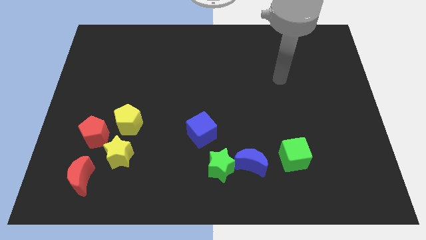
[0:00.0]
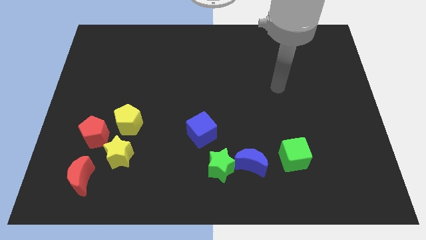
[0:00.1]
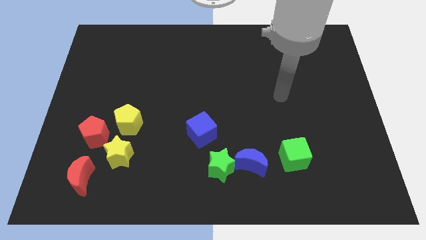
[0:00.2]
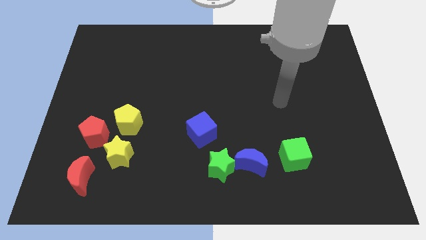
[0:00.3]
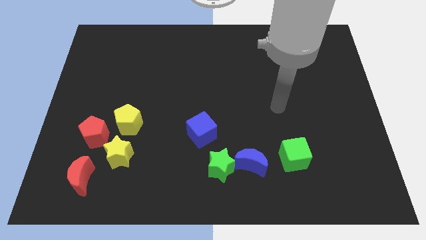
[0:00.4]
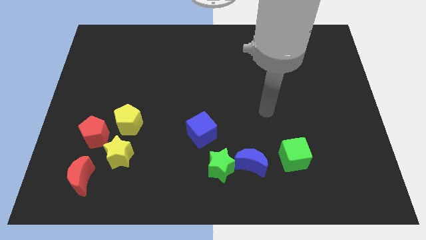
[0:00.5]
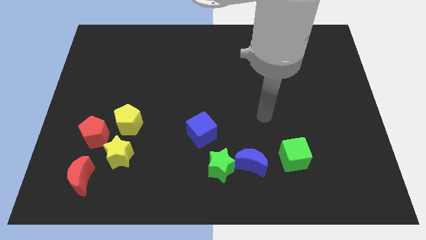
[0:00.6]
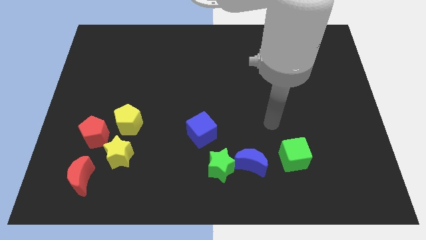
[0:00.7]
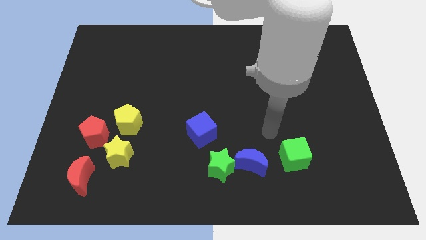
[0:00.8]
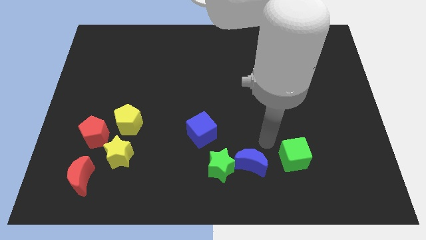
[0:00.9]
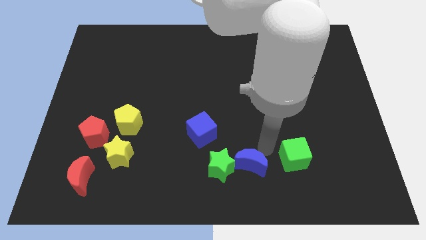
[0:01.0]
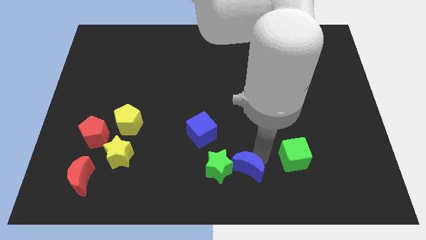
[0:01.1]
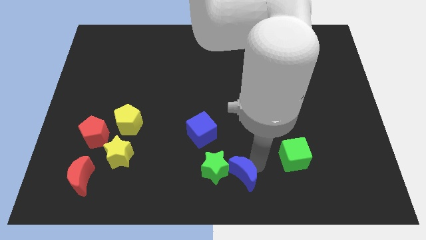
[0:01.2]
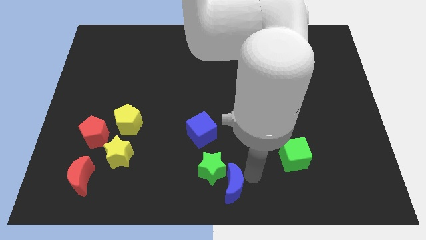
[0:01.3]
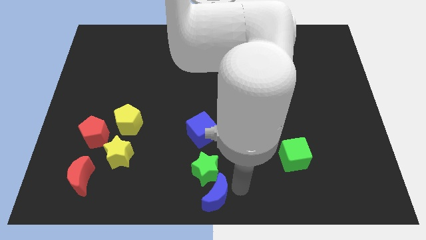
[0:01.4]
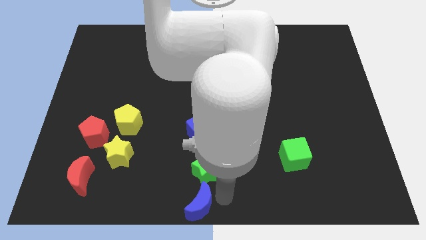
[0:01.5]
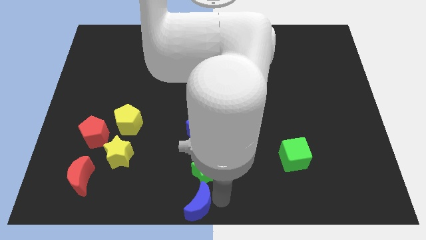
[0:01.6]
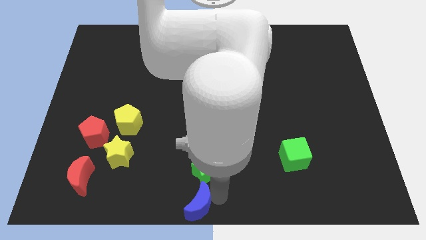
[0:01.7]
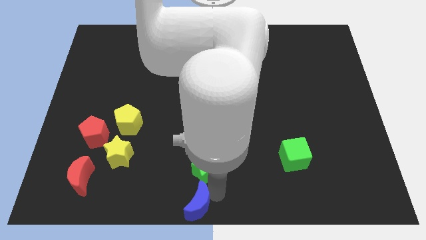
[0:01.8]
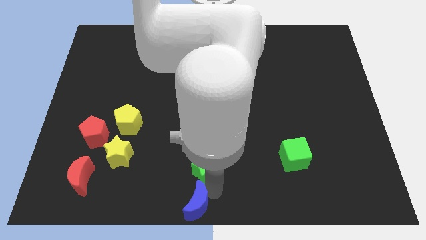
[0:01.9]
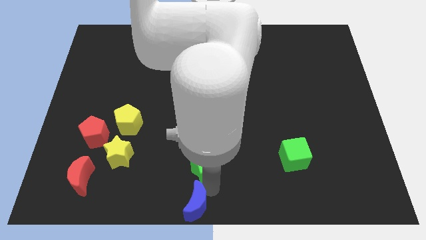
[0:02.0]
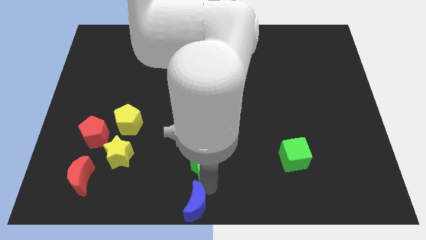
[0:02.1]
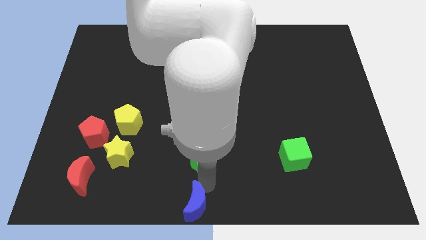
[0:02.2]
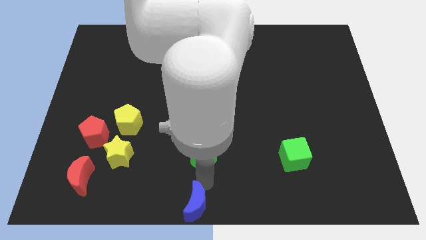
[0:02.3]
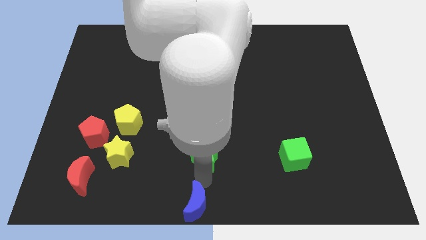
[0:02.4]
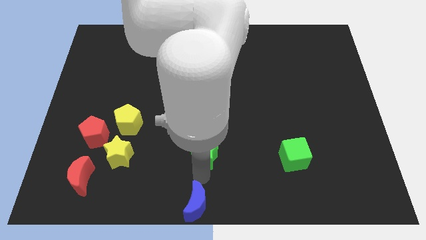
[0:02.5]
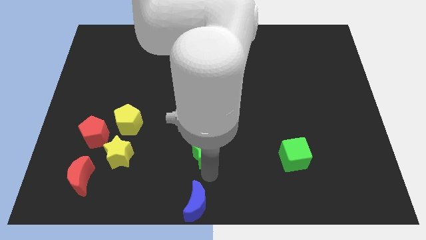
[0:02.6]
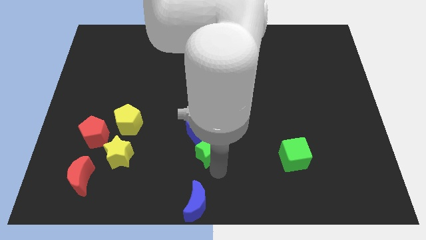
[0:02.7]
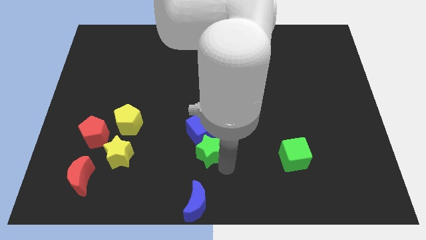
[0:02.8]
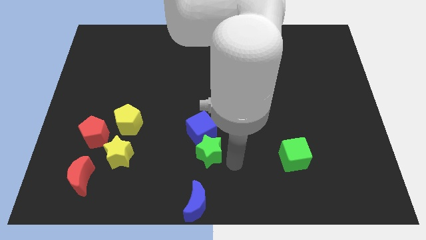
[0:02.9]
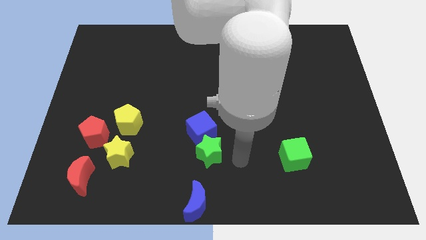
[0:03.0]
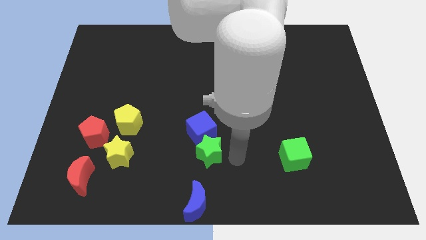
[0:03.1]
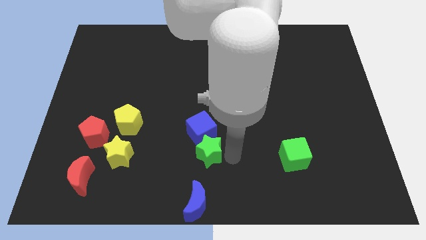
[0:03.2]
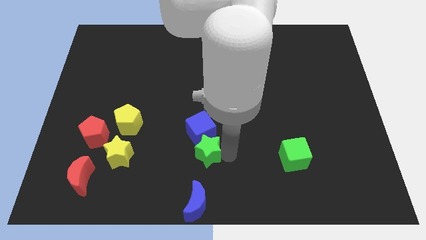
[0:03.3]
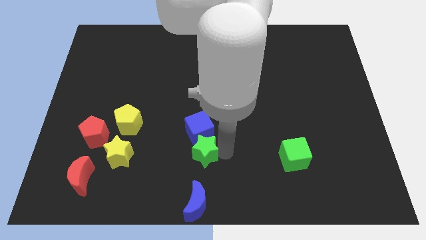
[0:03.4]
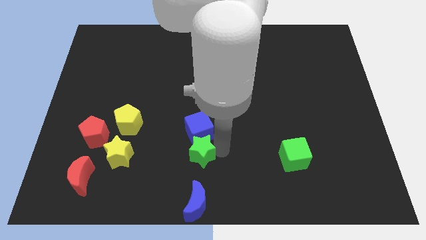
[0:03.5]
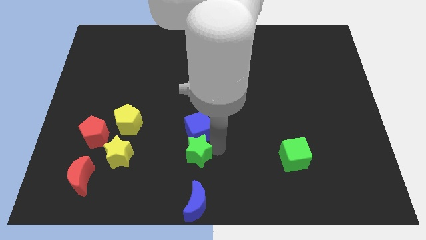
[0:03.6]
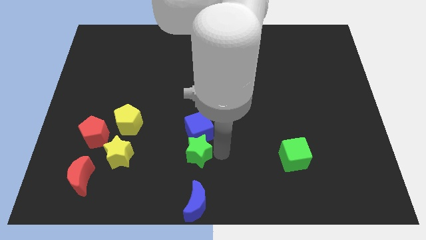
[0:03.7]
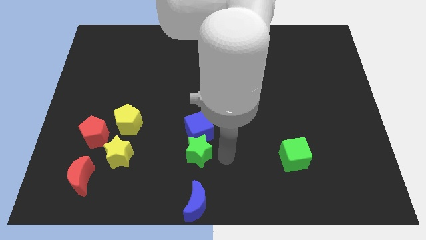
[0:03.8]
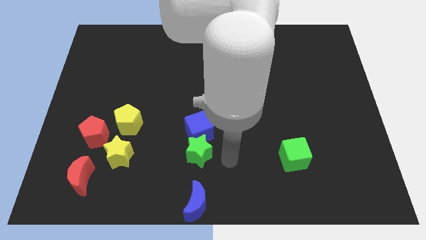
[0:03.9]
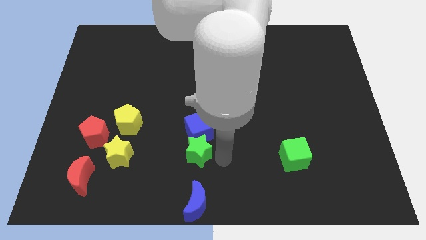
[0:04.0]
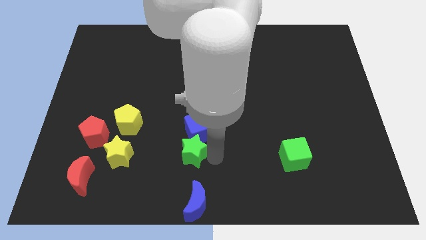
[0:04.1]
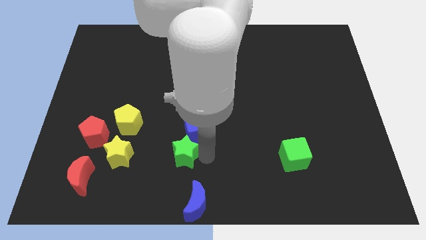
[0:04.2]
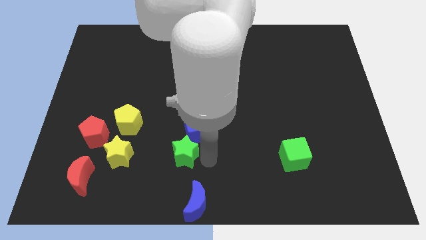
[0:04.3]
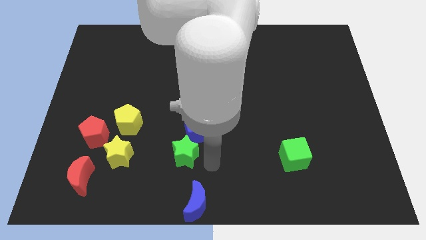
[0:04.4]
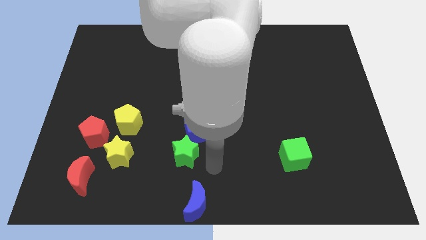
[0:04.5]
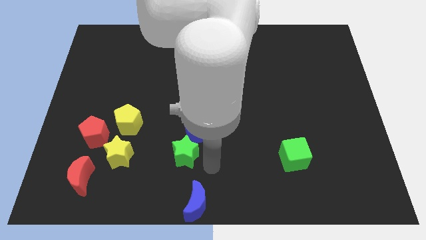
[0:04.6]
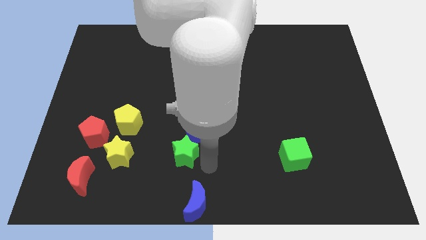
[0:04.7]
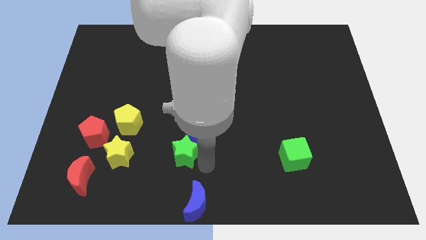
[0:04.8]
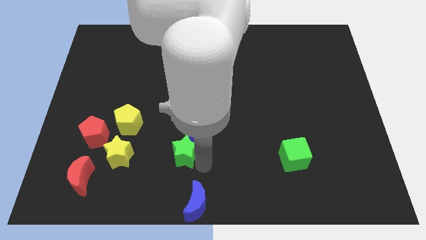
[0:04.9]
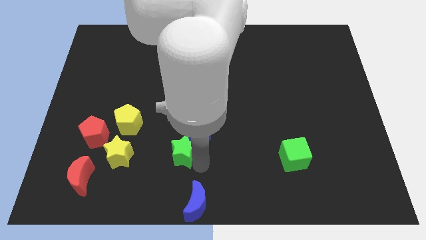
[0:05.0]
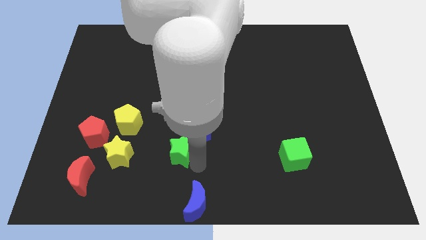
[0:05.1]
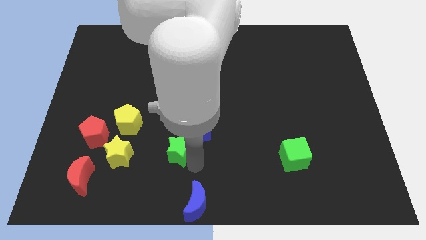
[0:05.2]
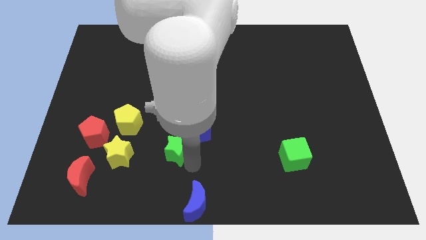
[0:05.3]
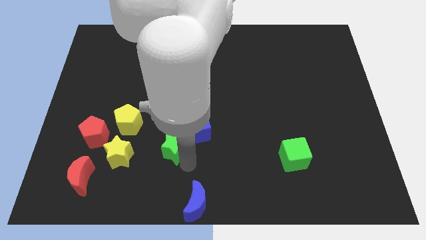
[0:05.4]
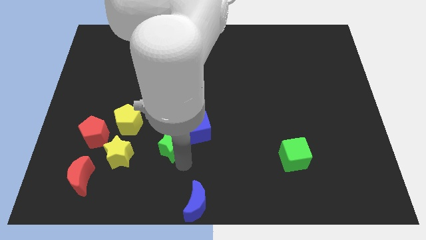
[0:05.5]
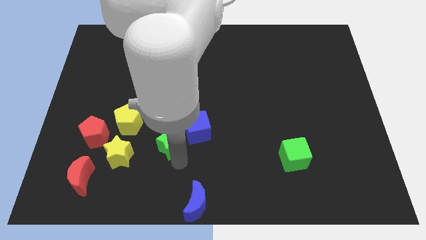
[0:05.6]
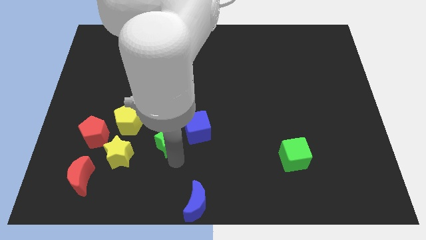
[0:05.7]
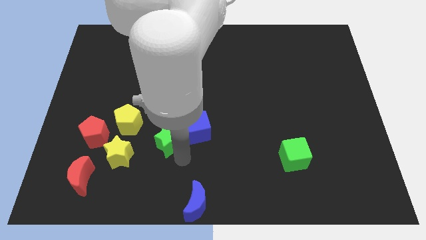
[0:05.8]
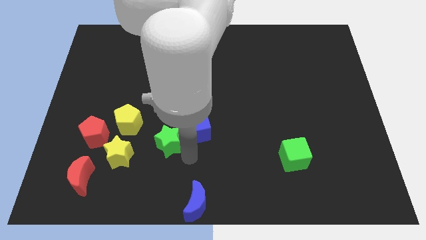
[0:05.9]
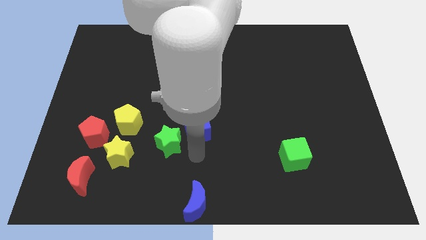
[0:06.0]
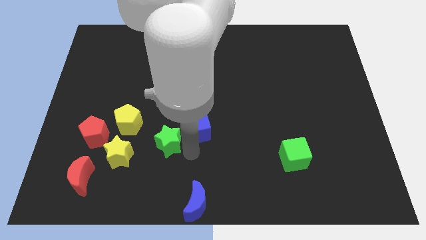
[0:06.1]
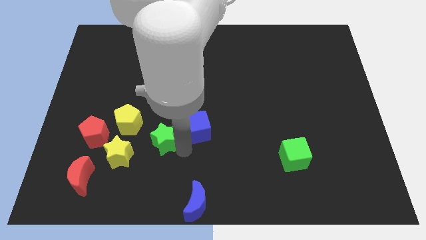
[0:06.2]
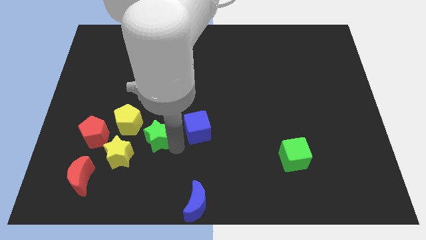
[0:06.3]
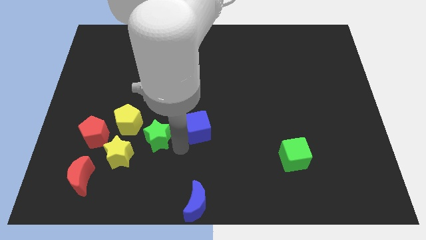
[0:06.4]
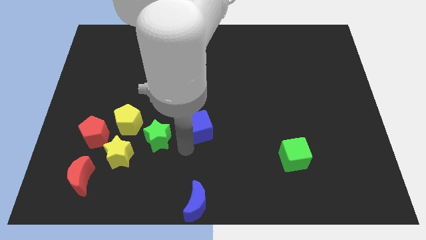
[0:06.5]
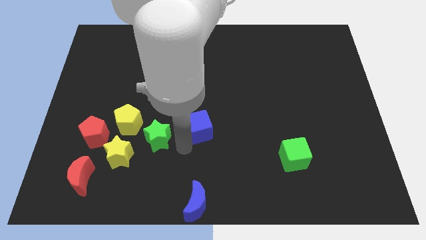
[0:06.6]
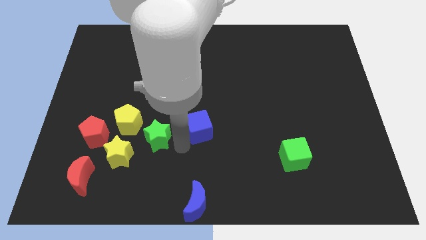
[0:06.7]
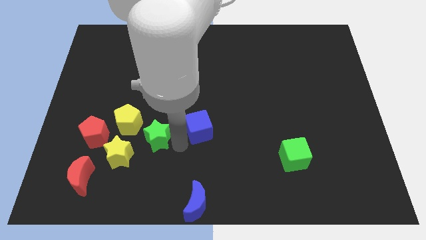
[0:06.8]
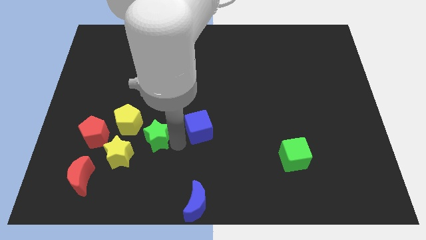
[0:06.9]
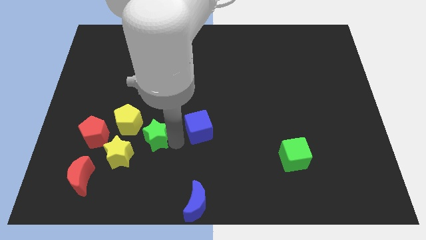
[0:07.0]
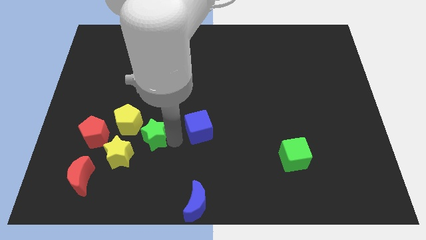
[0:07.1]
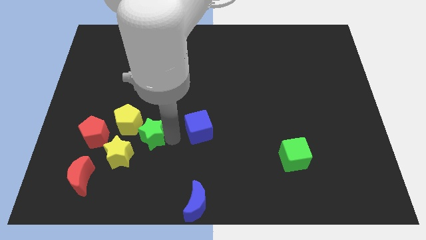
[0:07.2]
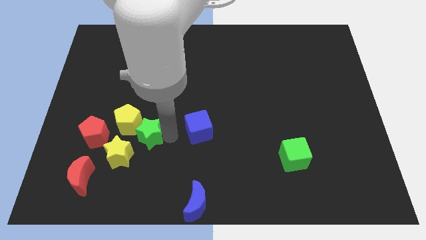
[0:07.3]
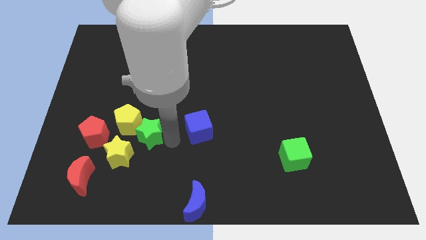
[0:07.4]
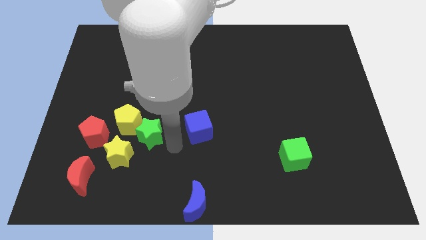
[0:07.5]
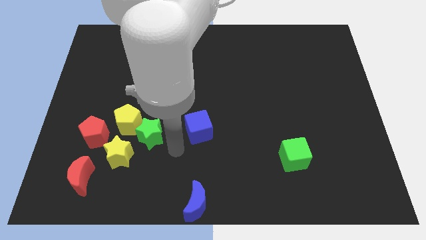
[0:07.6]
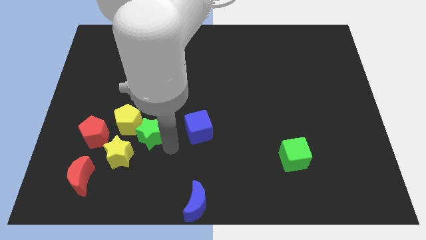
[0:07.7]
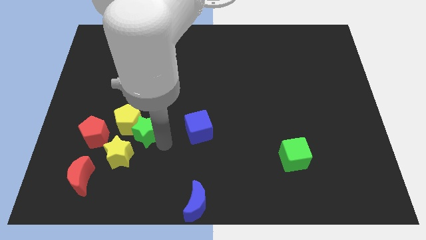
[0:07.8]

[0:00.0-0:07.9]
slide the green star to the yellow pentagon
